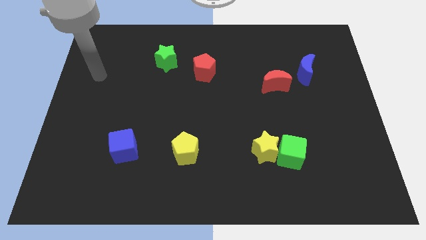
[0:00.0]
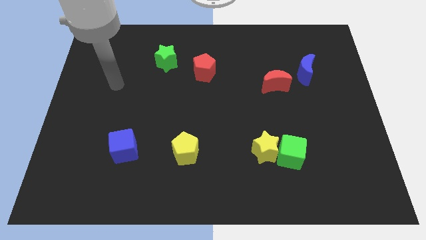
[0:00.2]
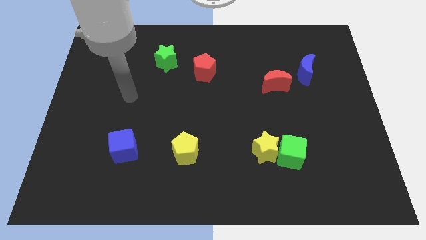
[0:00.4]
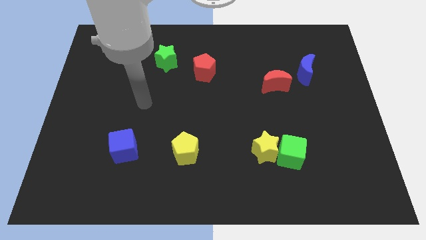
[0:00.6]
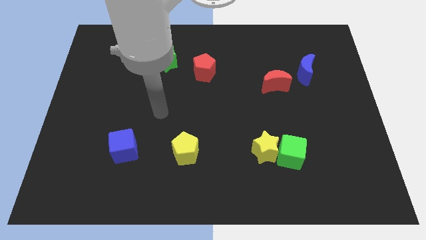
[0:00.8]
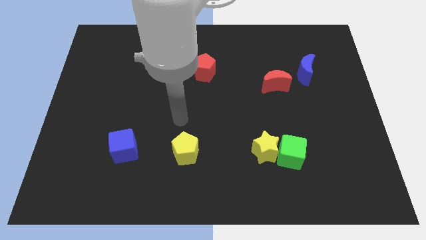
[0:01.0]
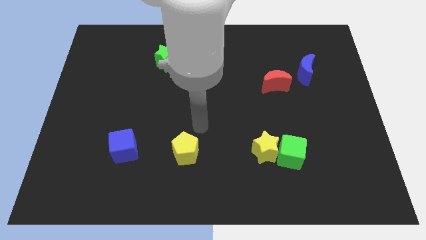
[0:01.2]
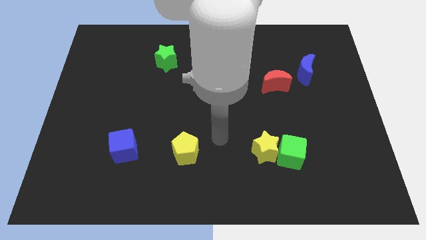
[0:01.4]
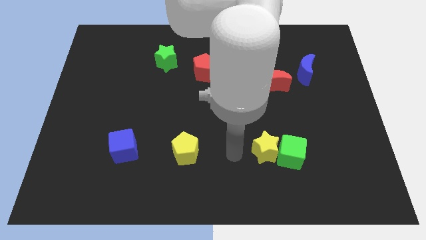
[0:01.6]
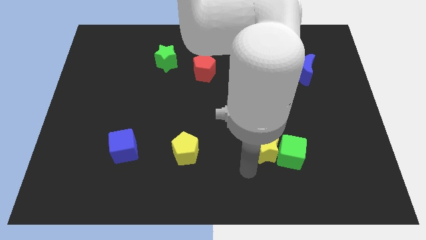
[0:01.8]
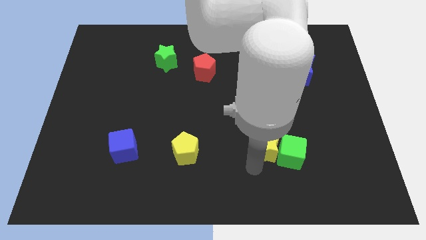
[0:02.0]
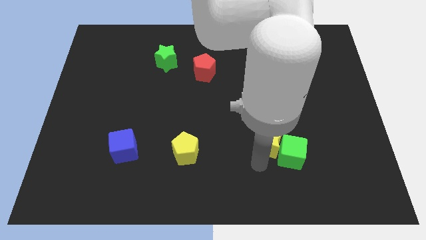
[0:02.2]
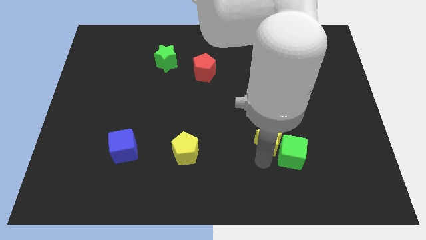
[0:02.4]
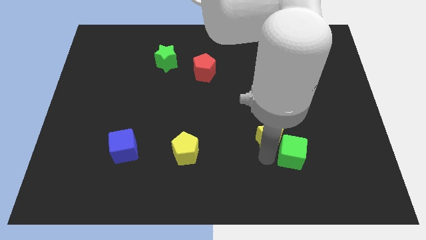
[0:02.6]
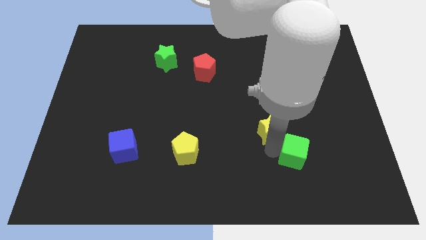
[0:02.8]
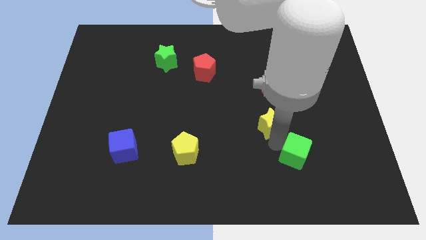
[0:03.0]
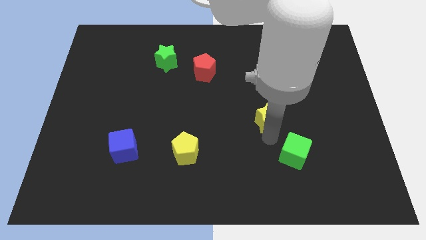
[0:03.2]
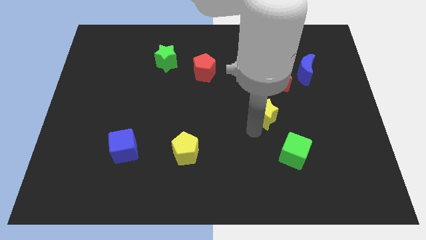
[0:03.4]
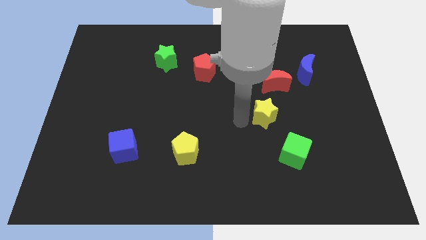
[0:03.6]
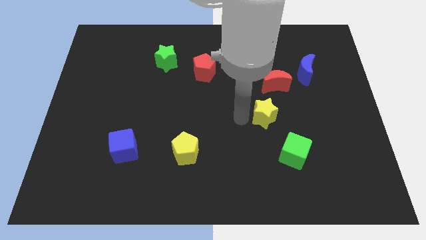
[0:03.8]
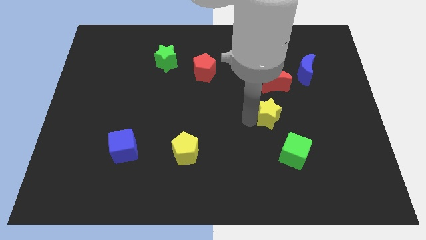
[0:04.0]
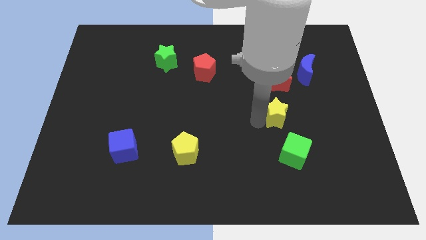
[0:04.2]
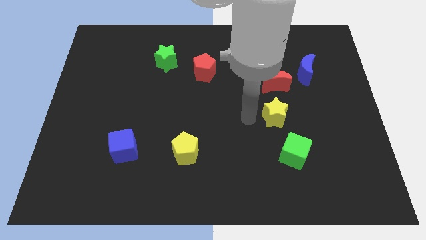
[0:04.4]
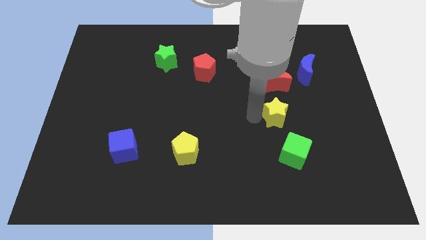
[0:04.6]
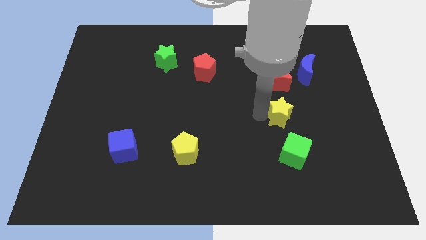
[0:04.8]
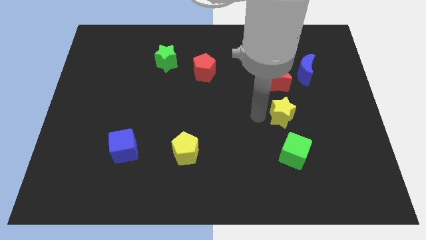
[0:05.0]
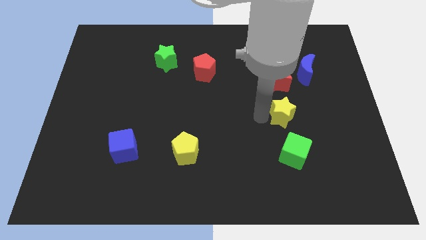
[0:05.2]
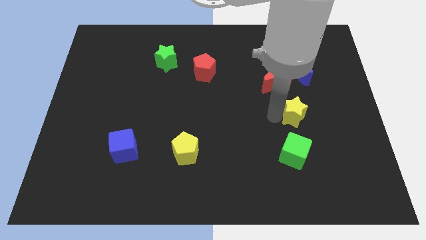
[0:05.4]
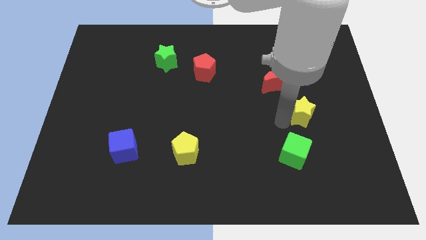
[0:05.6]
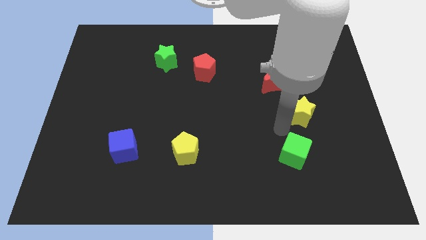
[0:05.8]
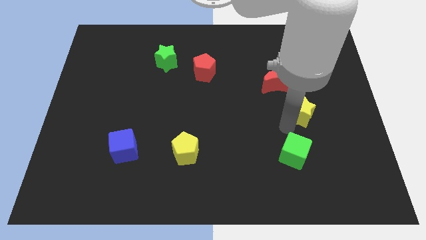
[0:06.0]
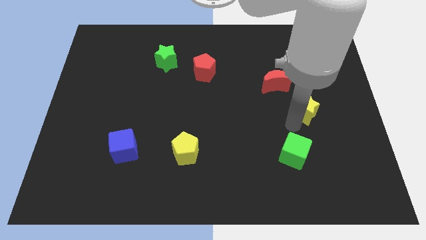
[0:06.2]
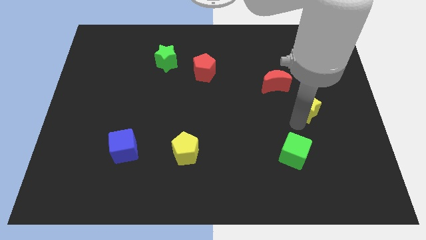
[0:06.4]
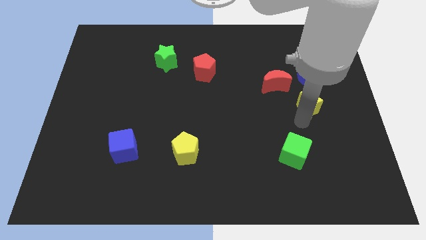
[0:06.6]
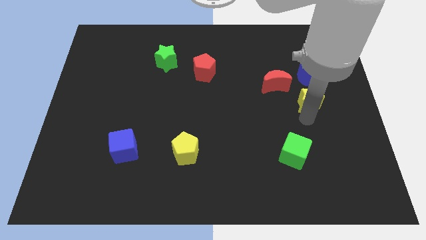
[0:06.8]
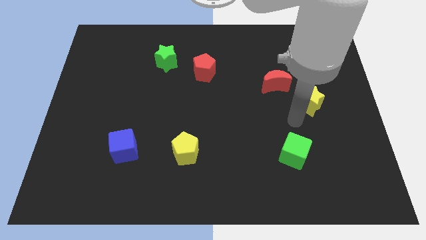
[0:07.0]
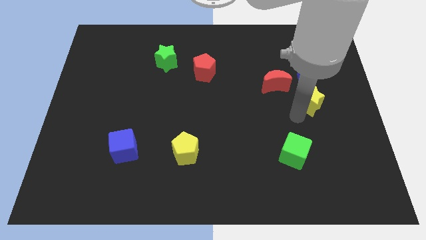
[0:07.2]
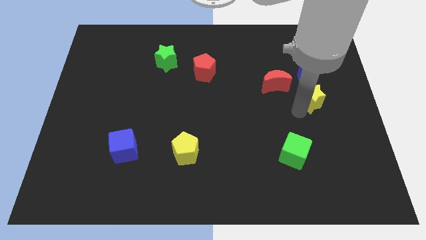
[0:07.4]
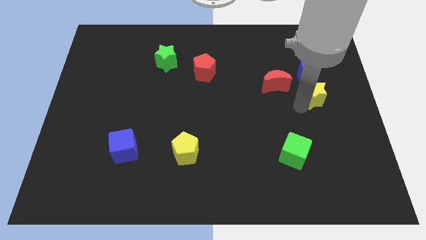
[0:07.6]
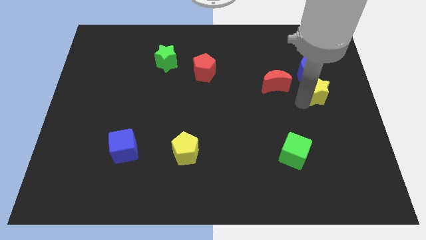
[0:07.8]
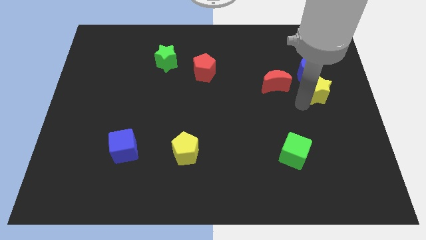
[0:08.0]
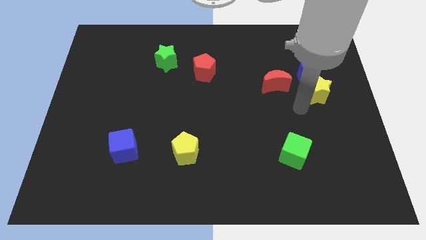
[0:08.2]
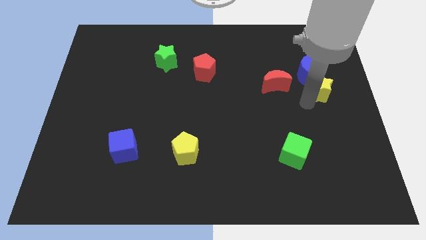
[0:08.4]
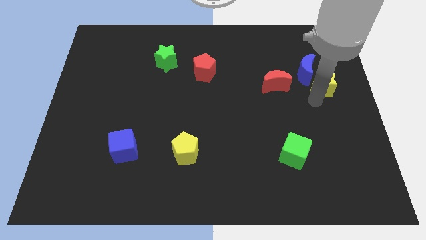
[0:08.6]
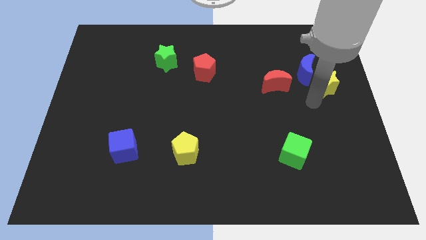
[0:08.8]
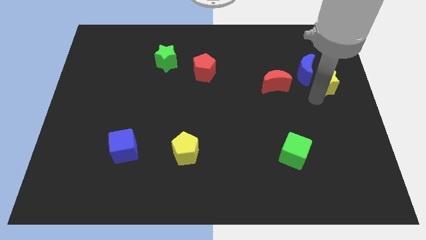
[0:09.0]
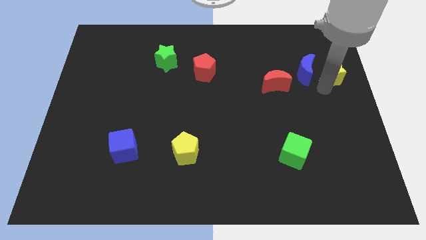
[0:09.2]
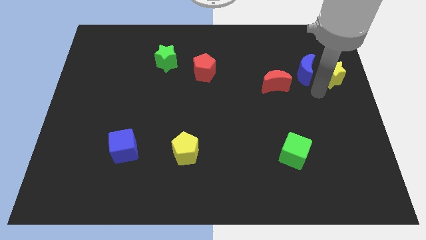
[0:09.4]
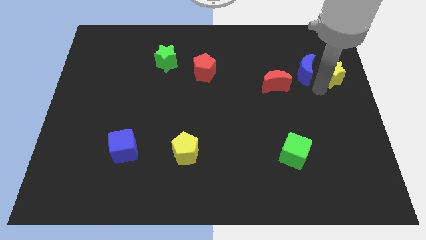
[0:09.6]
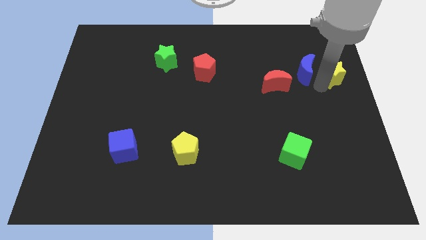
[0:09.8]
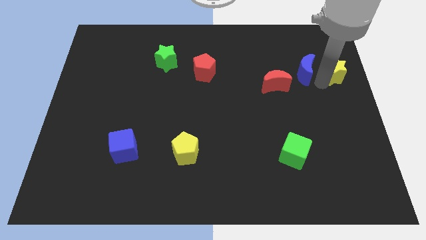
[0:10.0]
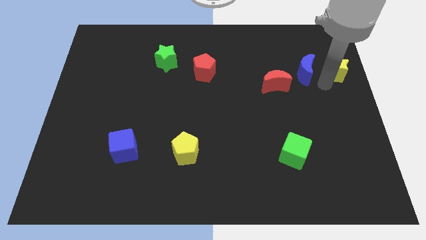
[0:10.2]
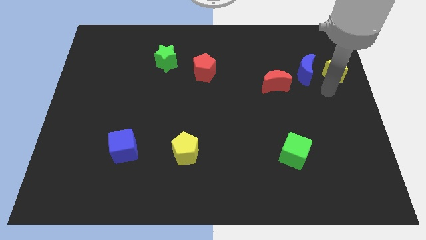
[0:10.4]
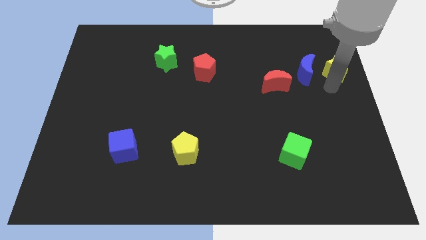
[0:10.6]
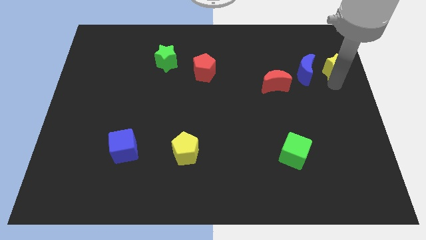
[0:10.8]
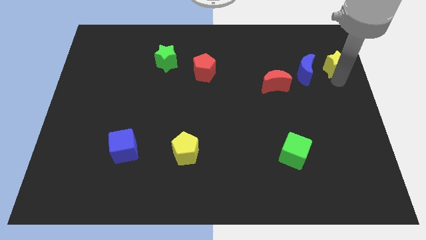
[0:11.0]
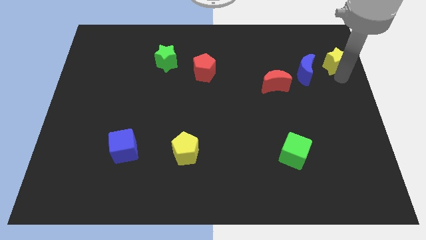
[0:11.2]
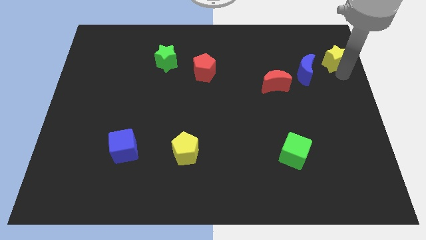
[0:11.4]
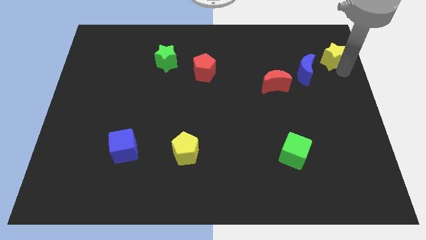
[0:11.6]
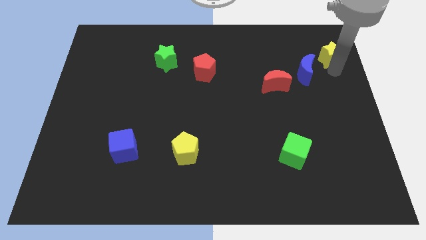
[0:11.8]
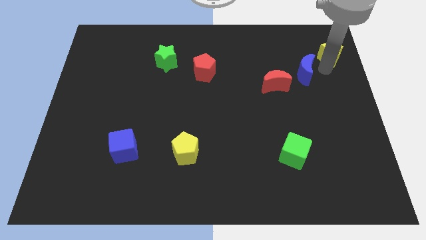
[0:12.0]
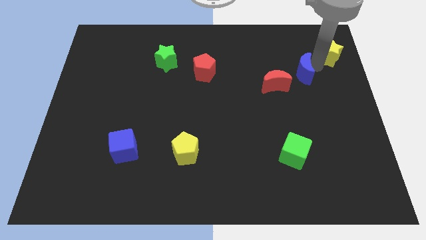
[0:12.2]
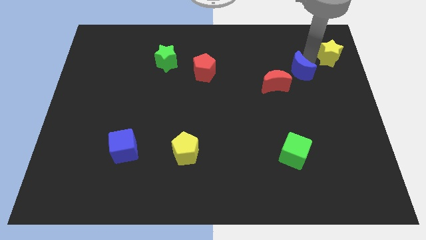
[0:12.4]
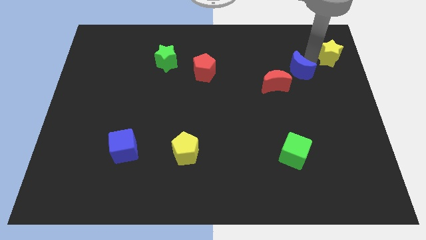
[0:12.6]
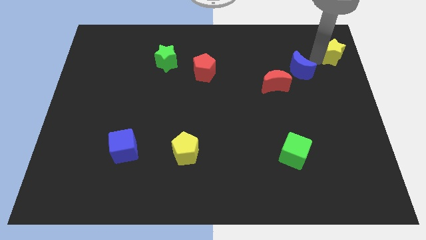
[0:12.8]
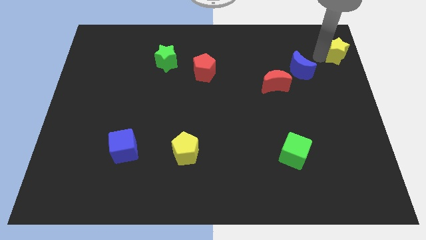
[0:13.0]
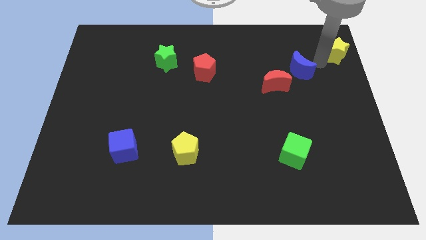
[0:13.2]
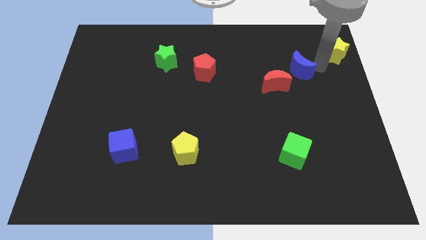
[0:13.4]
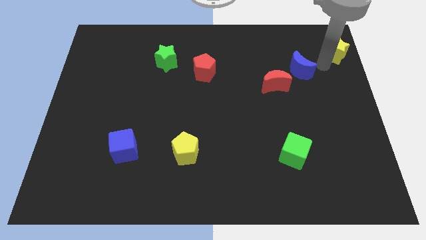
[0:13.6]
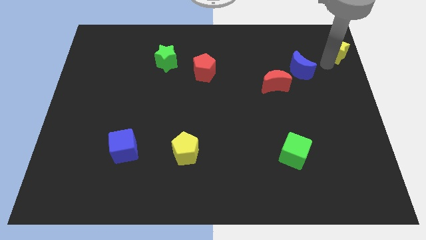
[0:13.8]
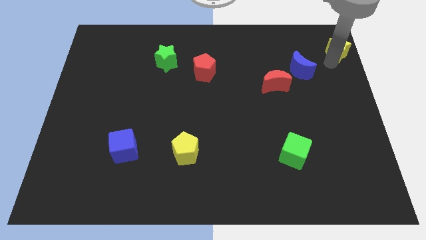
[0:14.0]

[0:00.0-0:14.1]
slide the yellow star to the top right
